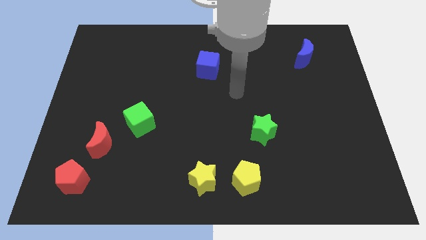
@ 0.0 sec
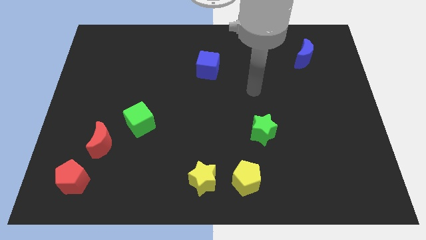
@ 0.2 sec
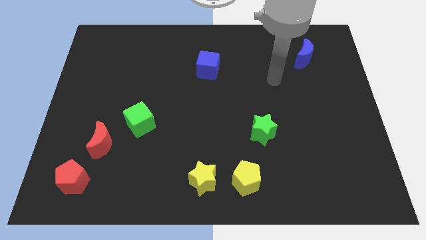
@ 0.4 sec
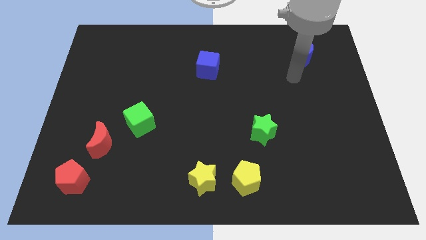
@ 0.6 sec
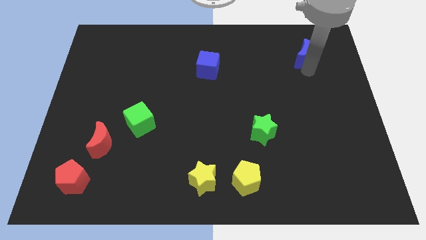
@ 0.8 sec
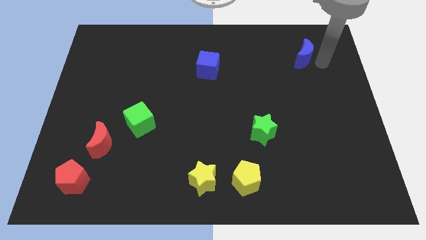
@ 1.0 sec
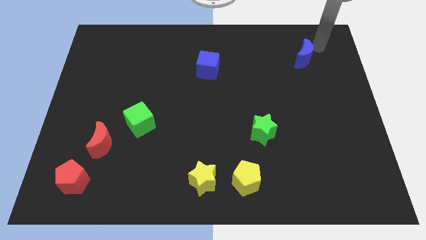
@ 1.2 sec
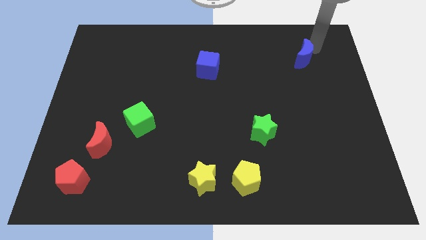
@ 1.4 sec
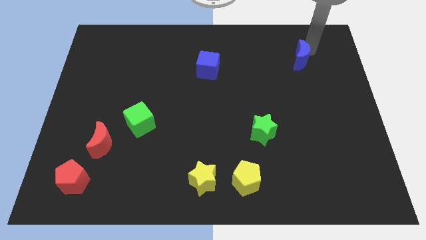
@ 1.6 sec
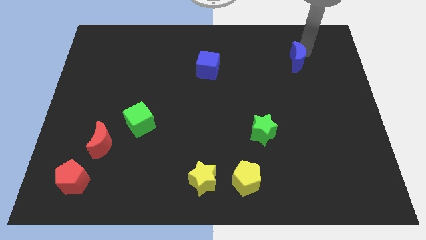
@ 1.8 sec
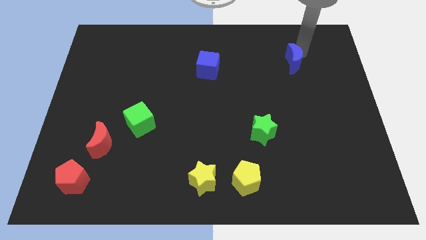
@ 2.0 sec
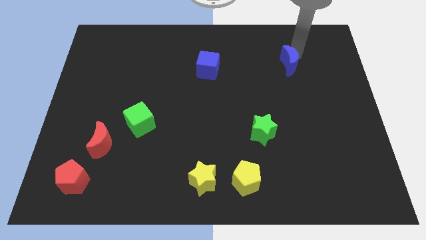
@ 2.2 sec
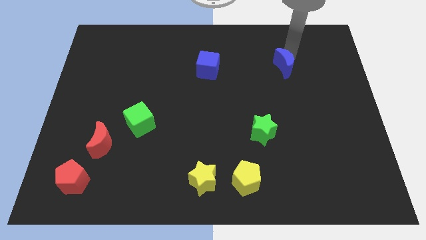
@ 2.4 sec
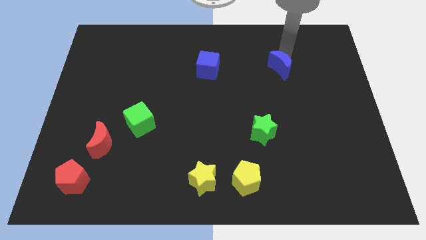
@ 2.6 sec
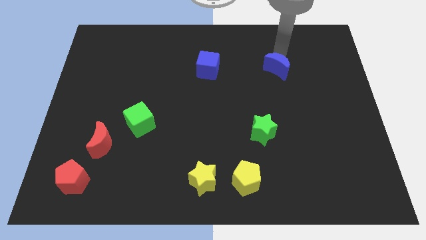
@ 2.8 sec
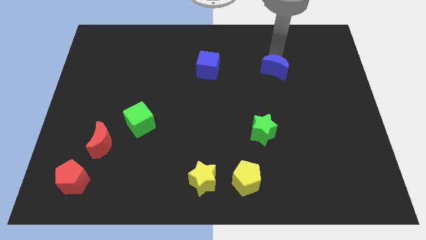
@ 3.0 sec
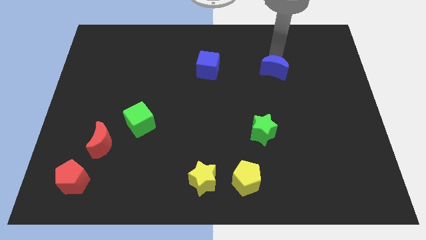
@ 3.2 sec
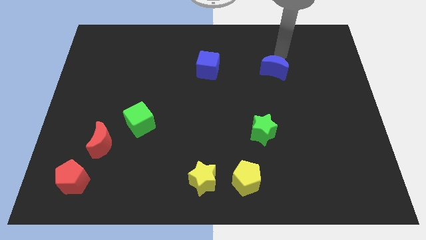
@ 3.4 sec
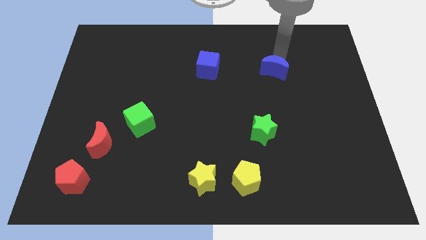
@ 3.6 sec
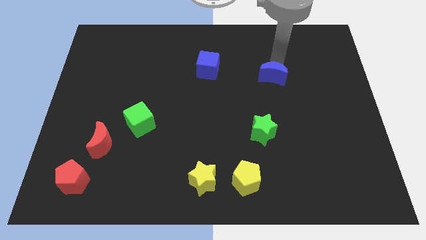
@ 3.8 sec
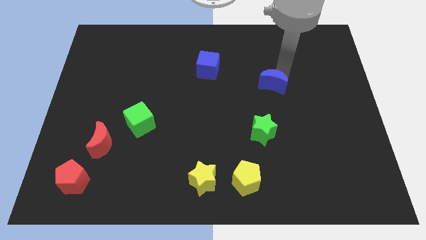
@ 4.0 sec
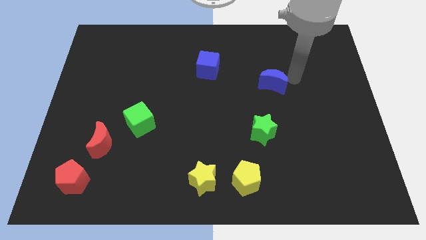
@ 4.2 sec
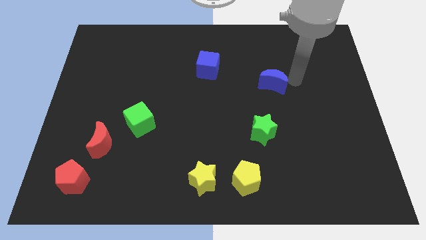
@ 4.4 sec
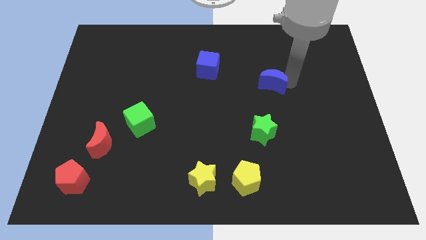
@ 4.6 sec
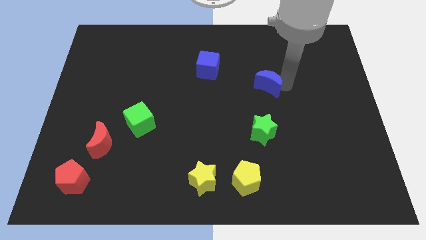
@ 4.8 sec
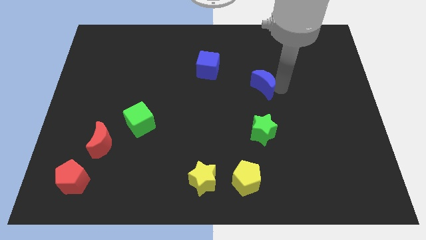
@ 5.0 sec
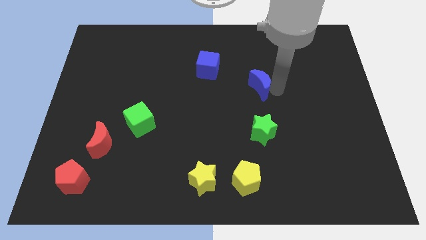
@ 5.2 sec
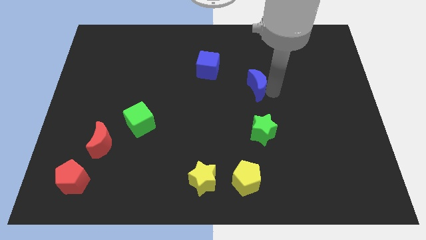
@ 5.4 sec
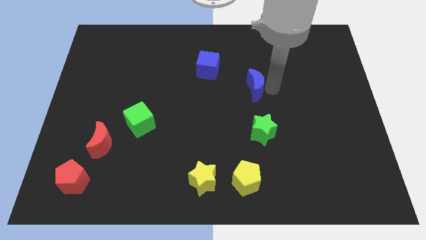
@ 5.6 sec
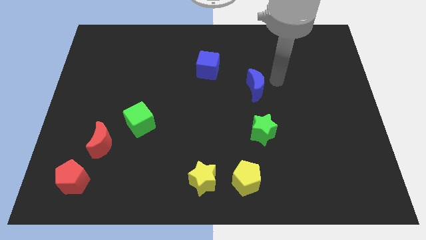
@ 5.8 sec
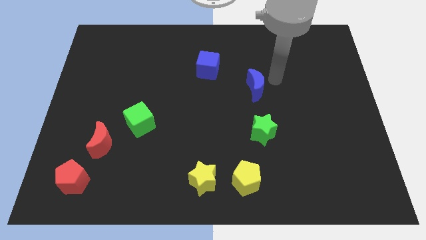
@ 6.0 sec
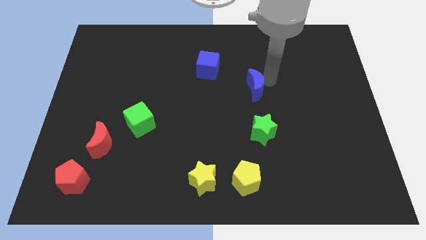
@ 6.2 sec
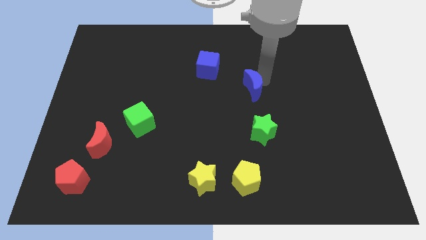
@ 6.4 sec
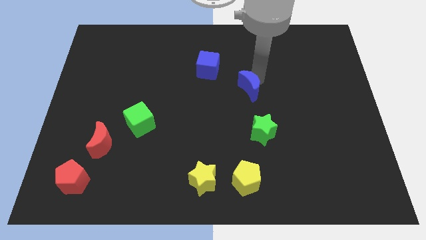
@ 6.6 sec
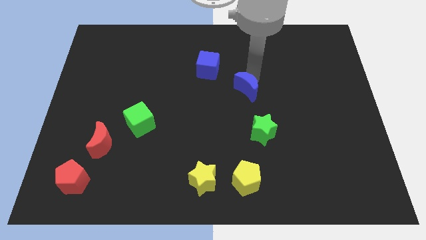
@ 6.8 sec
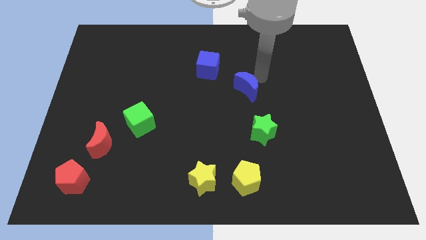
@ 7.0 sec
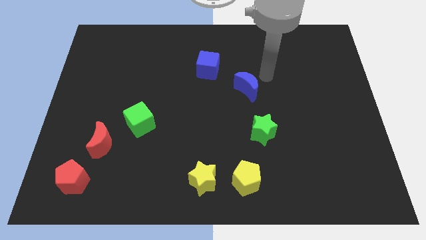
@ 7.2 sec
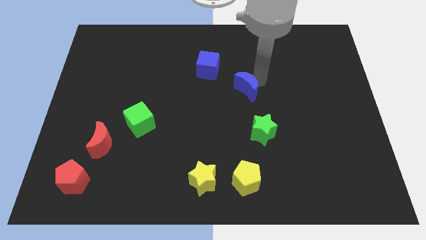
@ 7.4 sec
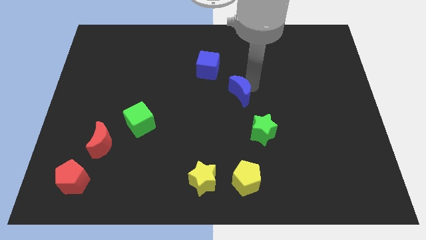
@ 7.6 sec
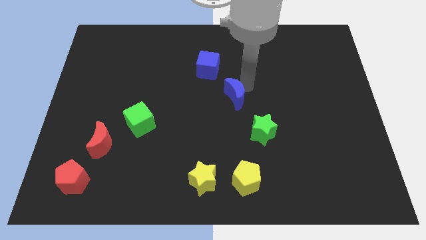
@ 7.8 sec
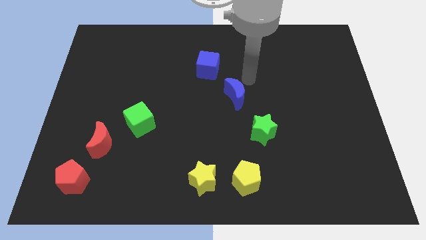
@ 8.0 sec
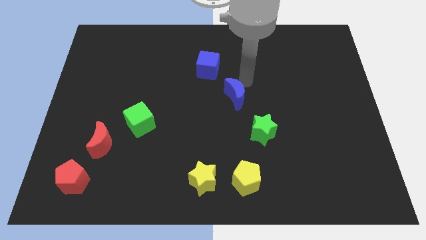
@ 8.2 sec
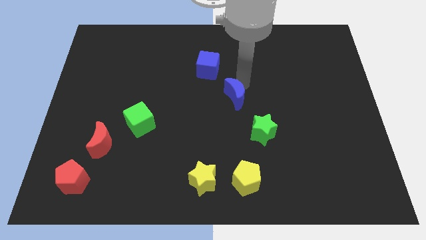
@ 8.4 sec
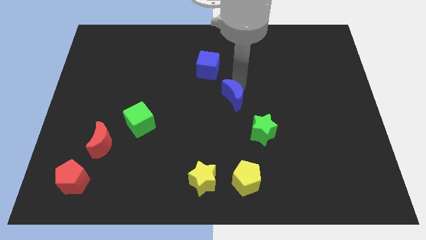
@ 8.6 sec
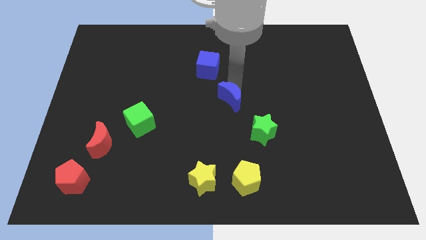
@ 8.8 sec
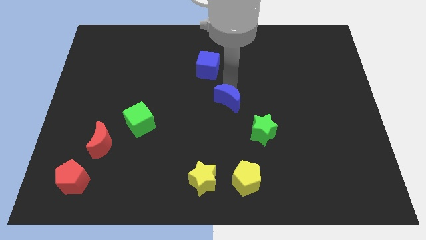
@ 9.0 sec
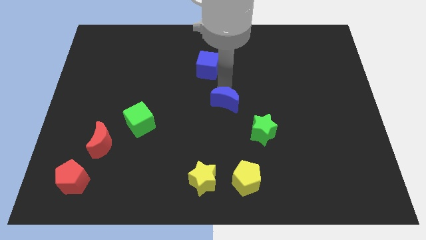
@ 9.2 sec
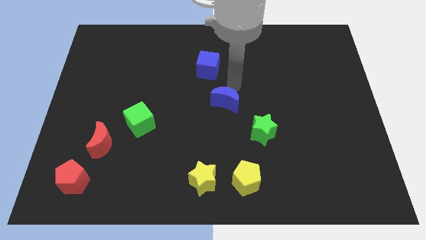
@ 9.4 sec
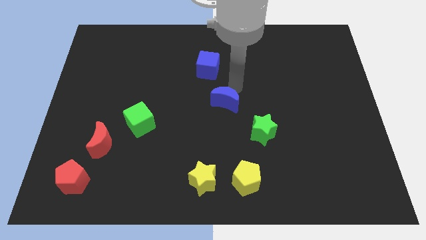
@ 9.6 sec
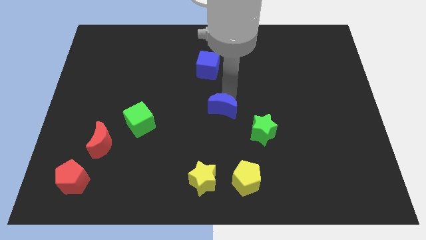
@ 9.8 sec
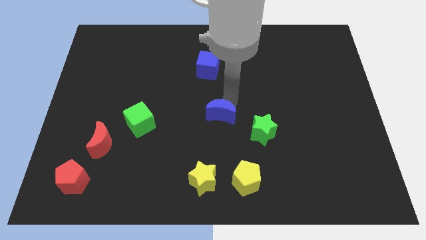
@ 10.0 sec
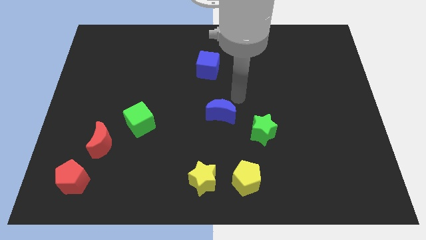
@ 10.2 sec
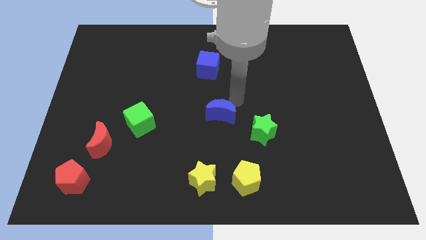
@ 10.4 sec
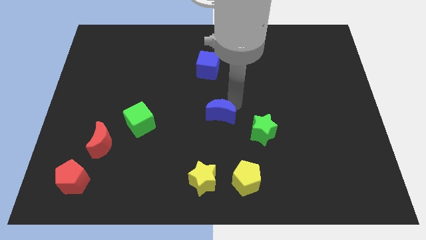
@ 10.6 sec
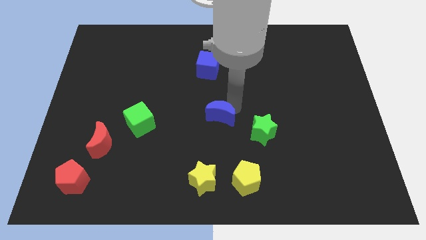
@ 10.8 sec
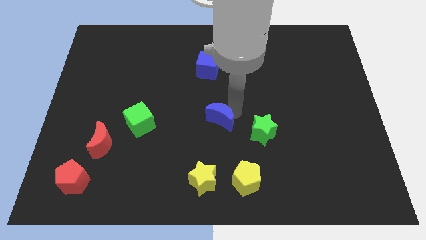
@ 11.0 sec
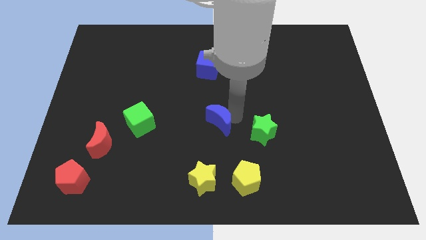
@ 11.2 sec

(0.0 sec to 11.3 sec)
put the blue moon above the yellow star
